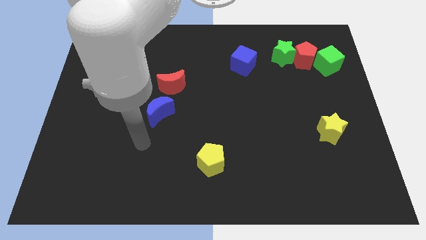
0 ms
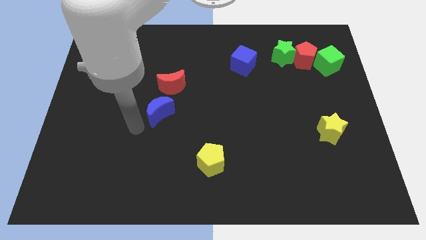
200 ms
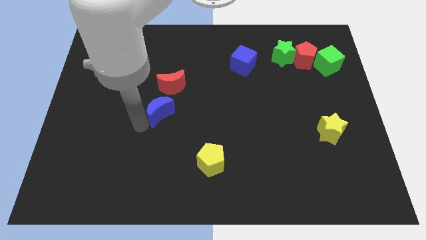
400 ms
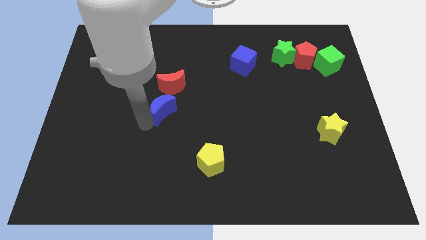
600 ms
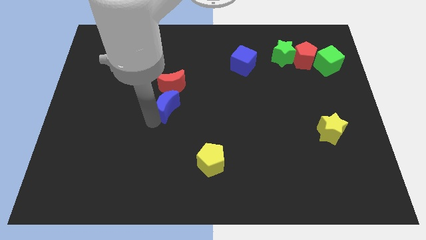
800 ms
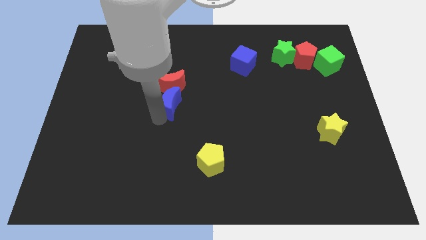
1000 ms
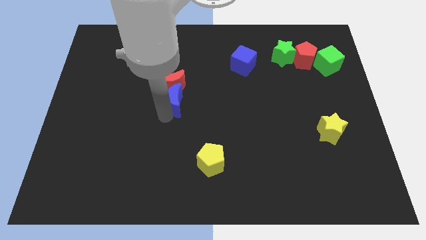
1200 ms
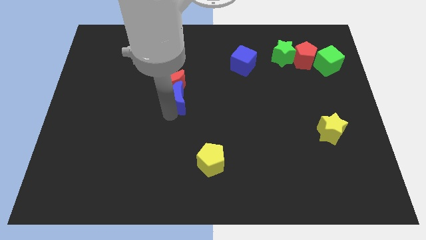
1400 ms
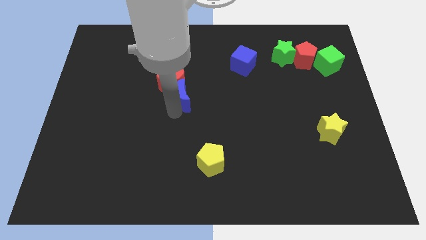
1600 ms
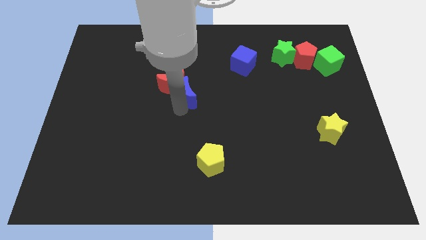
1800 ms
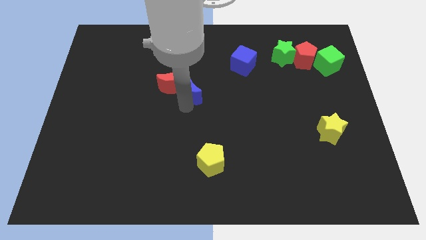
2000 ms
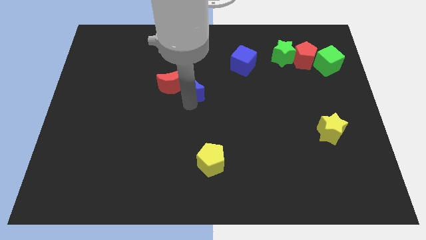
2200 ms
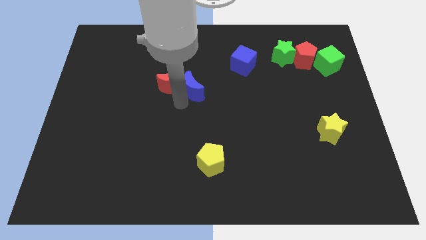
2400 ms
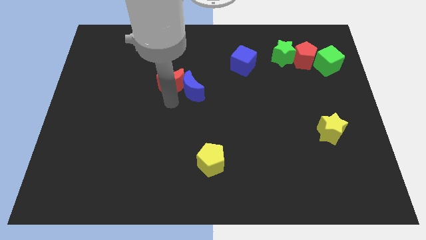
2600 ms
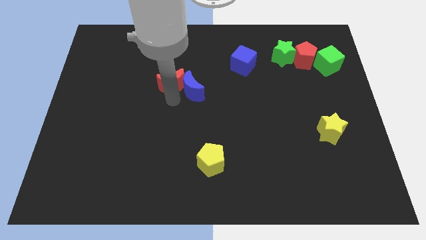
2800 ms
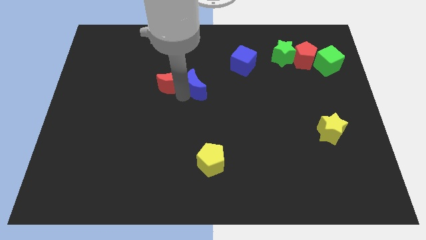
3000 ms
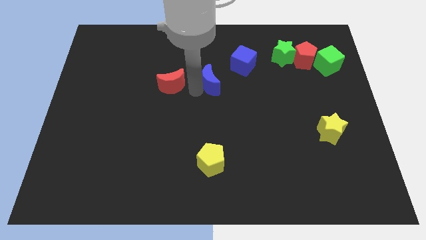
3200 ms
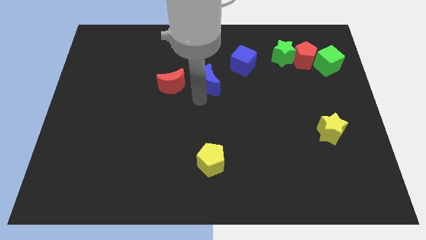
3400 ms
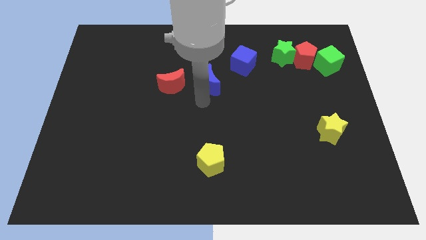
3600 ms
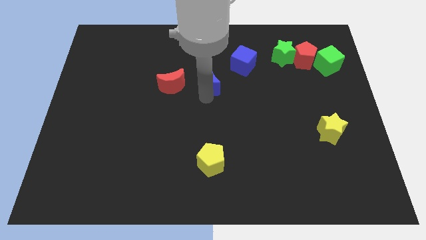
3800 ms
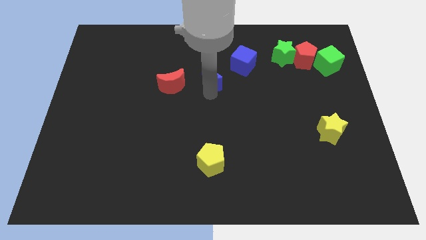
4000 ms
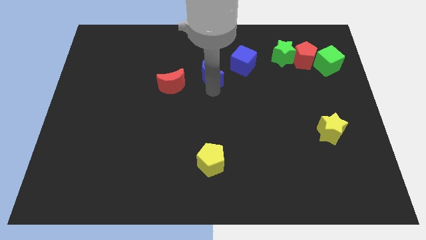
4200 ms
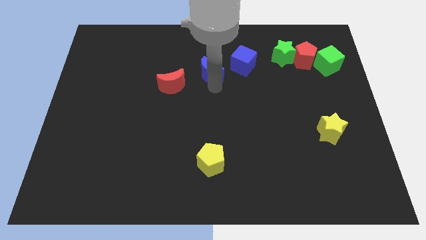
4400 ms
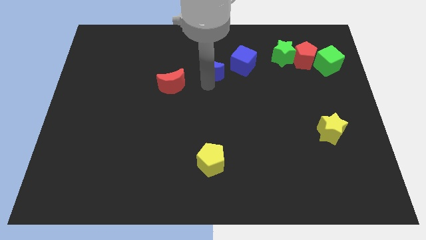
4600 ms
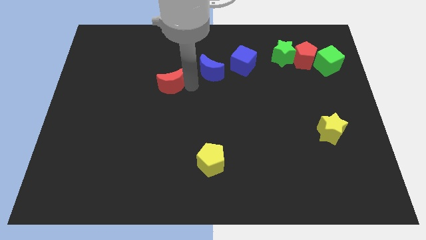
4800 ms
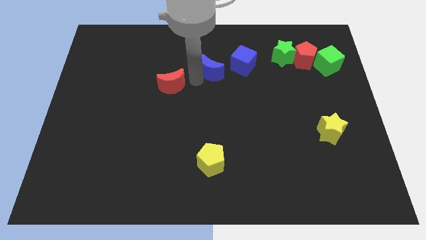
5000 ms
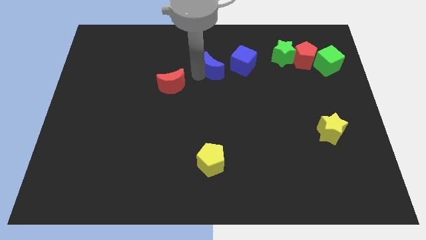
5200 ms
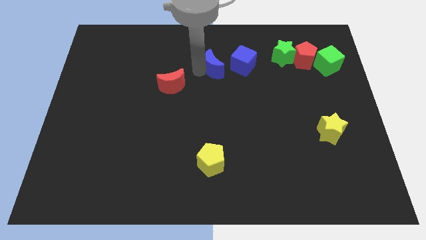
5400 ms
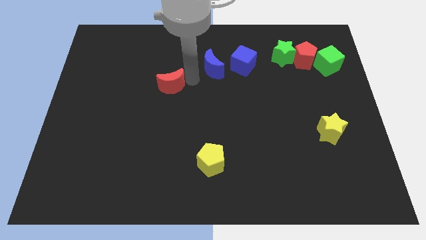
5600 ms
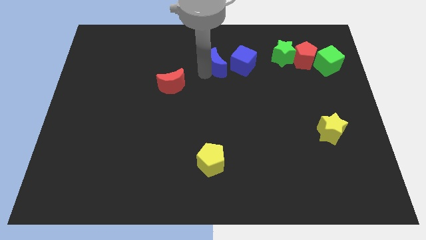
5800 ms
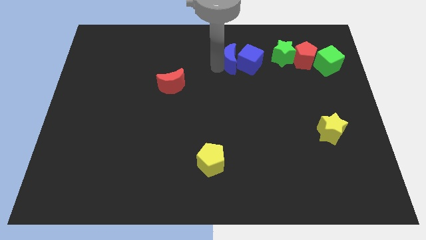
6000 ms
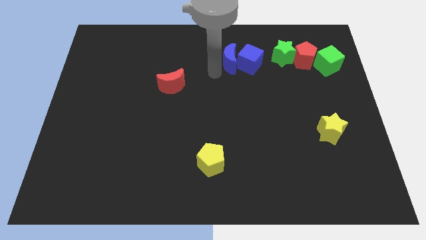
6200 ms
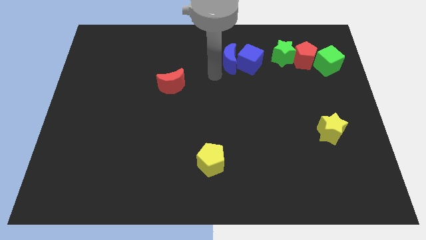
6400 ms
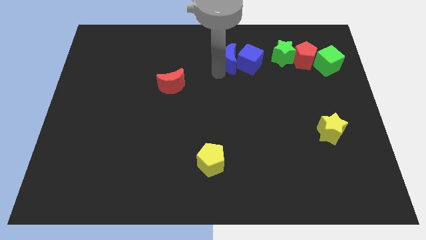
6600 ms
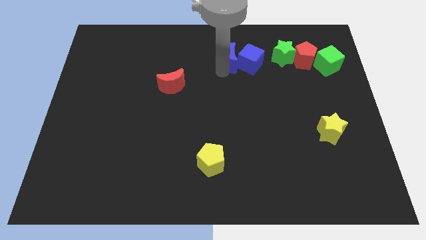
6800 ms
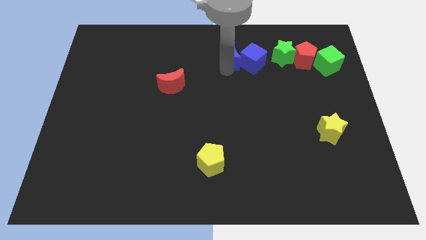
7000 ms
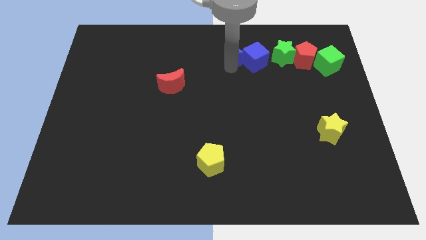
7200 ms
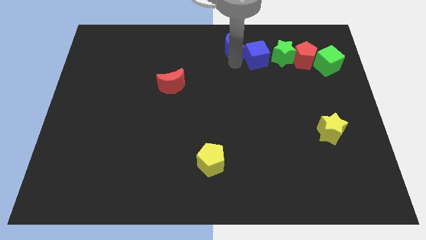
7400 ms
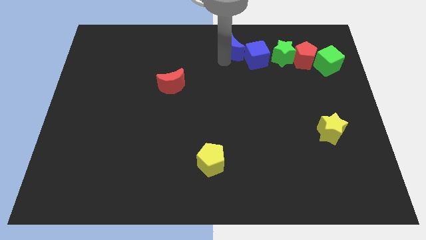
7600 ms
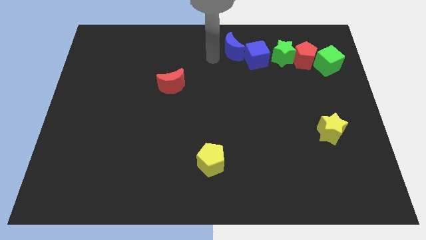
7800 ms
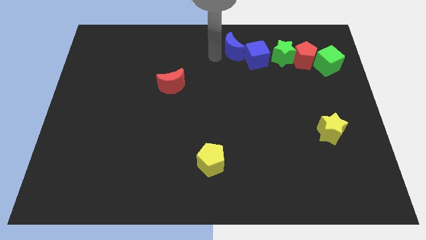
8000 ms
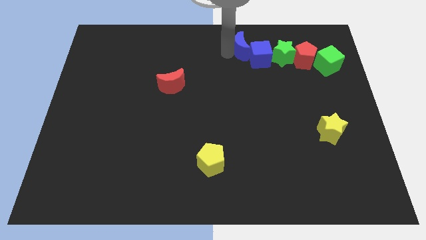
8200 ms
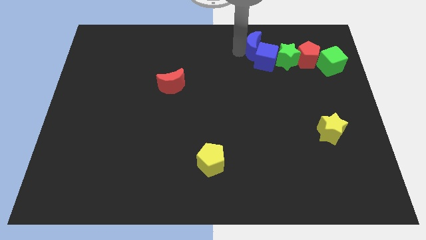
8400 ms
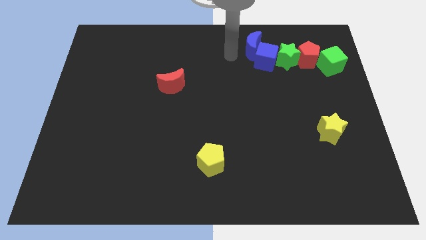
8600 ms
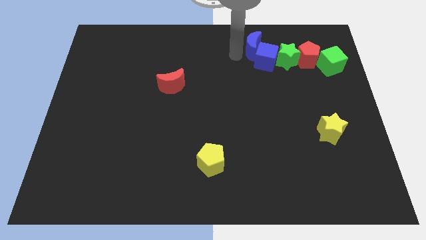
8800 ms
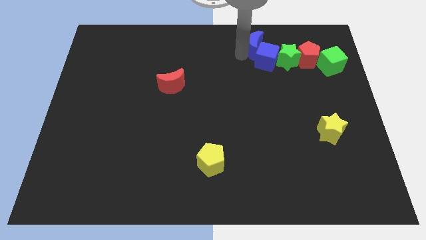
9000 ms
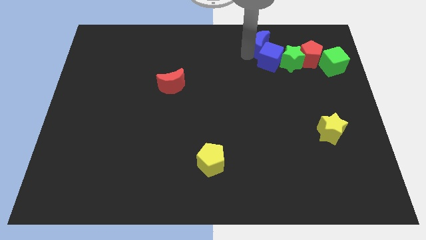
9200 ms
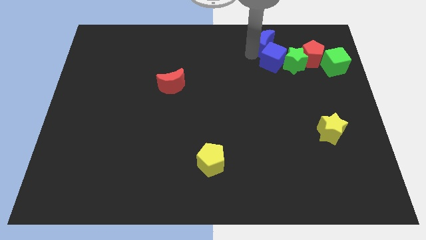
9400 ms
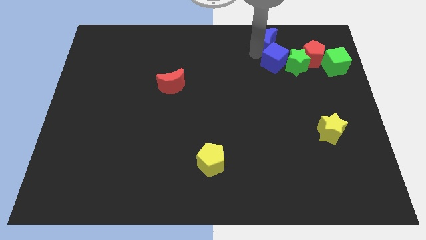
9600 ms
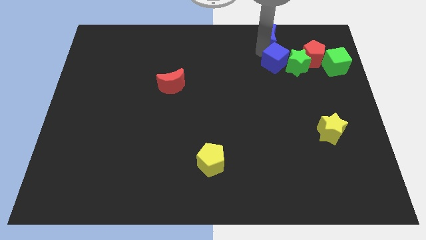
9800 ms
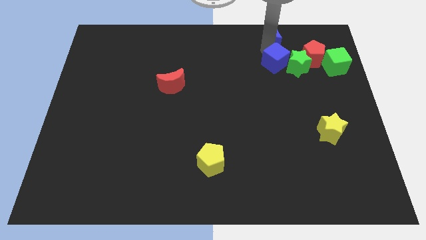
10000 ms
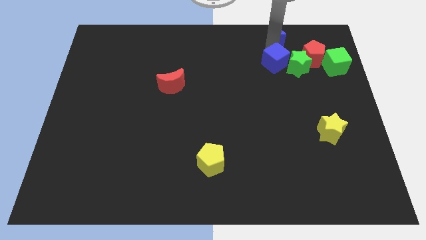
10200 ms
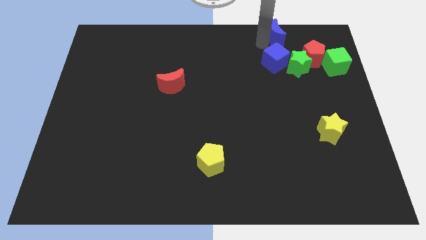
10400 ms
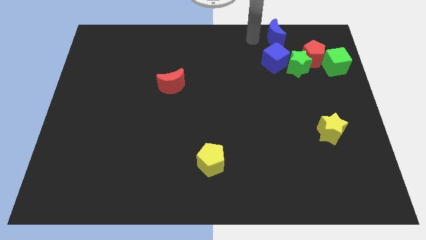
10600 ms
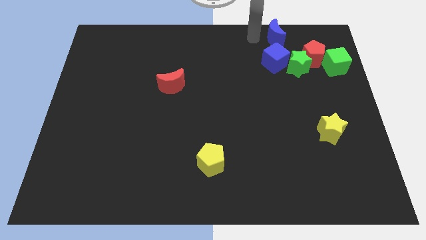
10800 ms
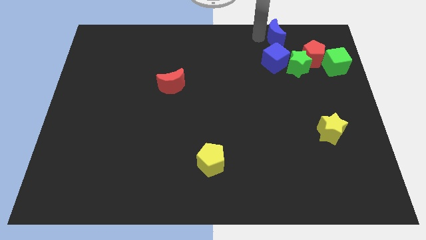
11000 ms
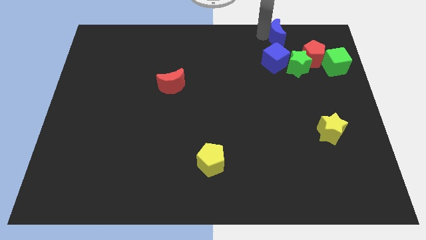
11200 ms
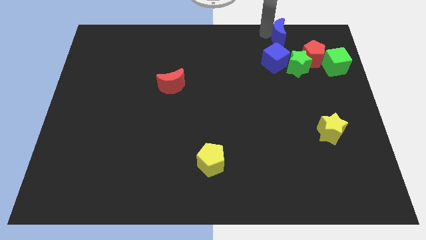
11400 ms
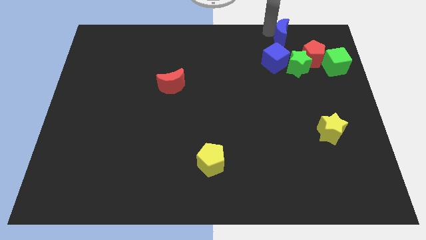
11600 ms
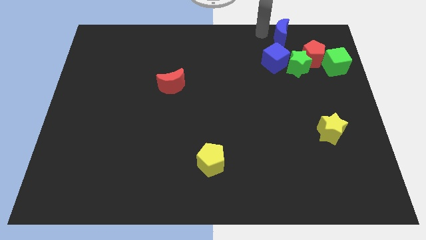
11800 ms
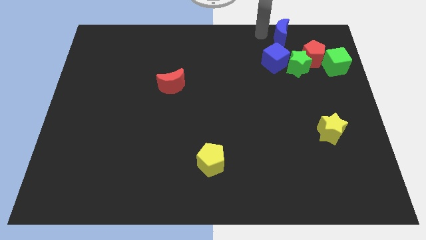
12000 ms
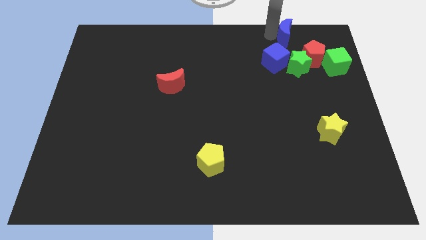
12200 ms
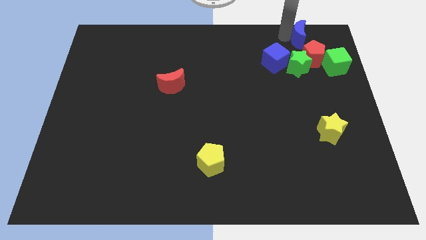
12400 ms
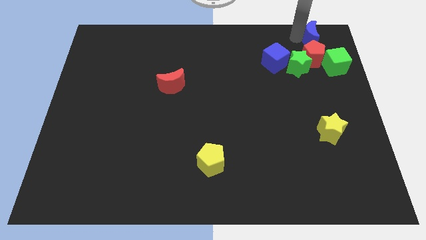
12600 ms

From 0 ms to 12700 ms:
move the blue moon to the top right
